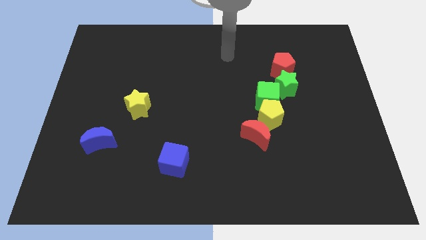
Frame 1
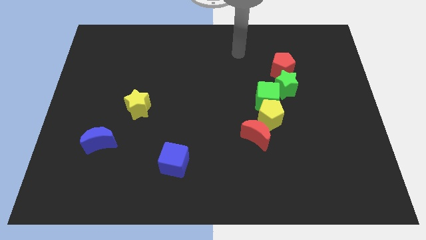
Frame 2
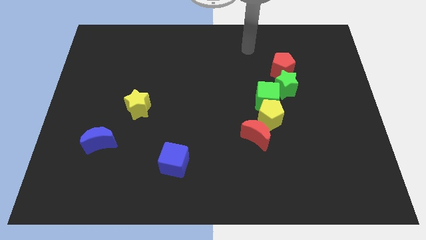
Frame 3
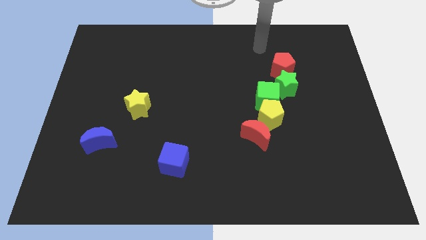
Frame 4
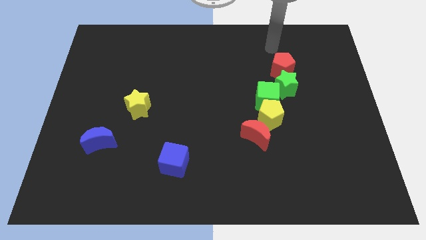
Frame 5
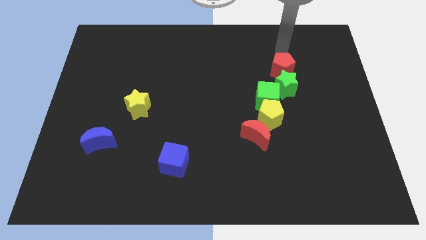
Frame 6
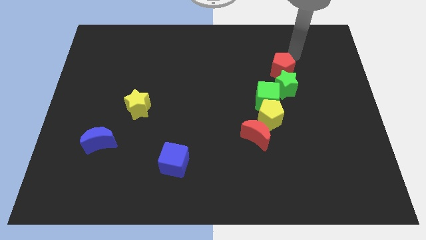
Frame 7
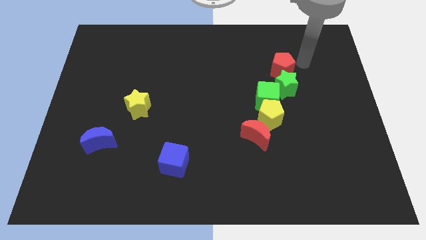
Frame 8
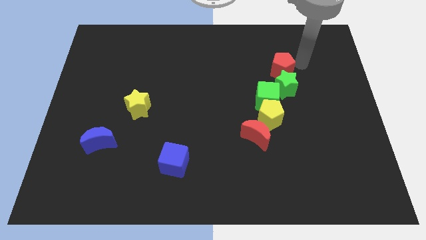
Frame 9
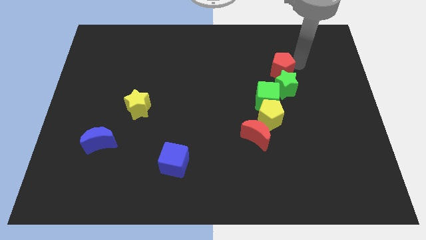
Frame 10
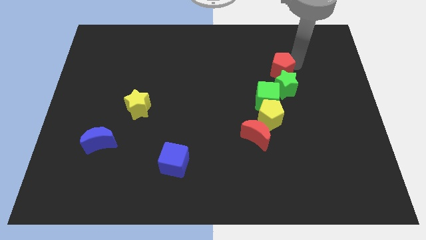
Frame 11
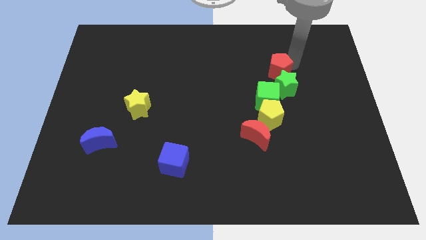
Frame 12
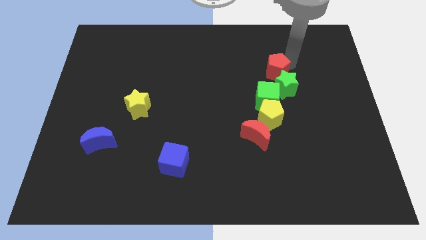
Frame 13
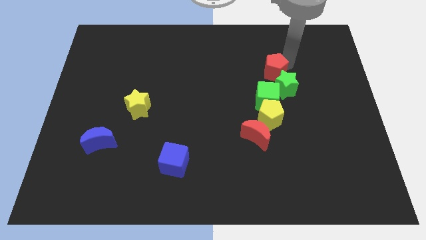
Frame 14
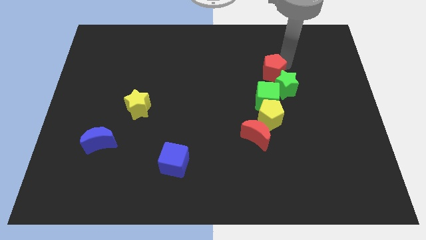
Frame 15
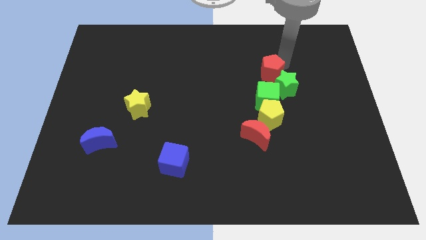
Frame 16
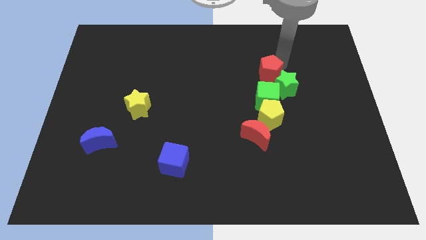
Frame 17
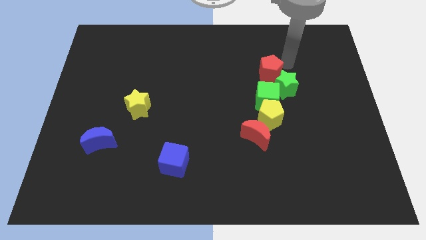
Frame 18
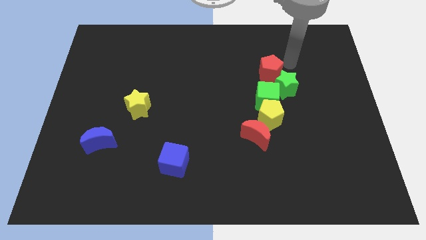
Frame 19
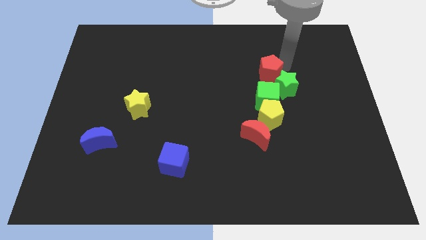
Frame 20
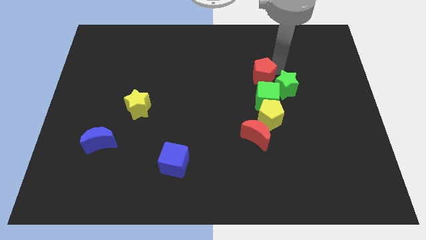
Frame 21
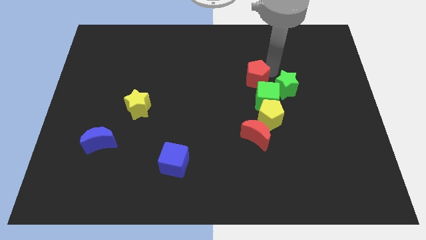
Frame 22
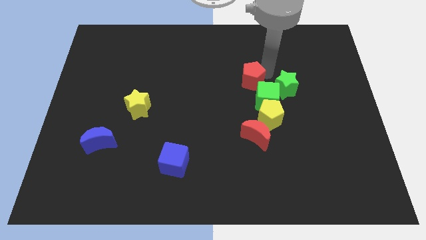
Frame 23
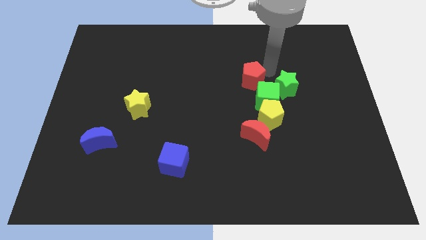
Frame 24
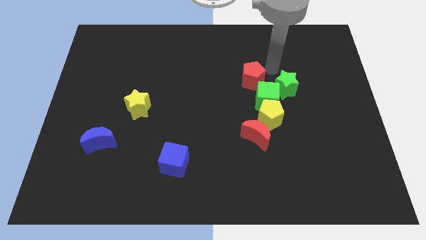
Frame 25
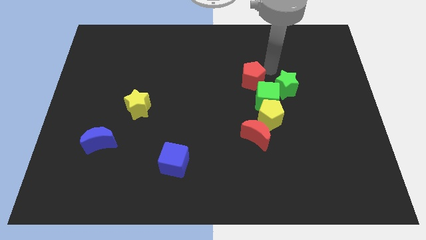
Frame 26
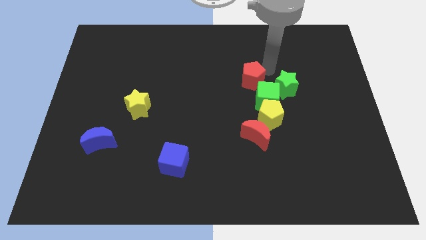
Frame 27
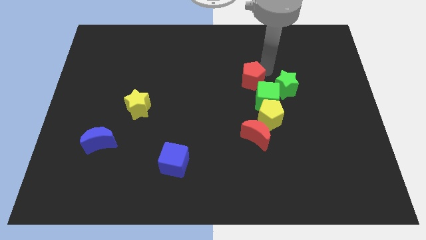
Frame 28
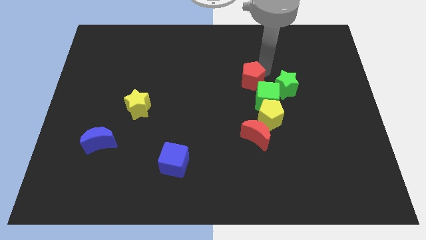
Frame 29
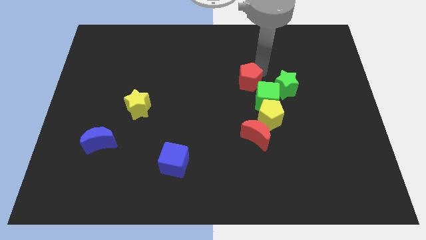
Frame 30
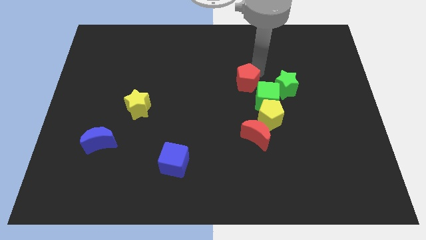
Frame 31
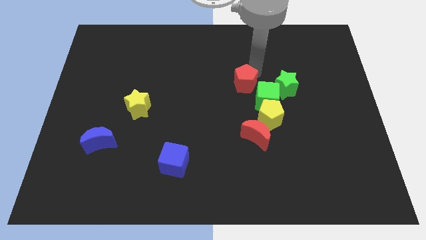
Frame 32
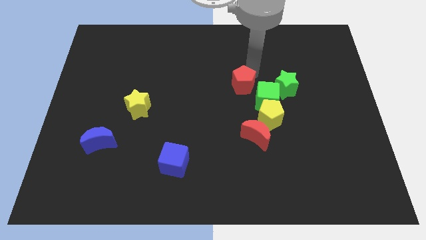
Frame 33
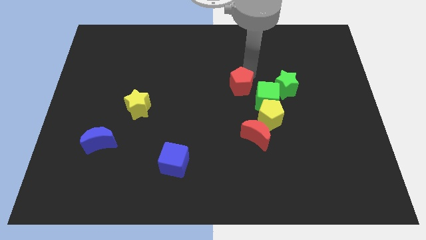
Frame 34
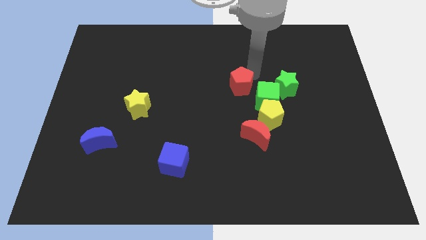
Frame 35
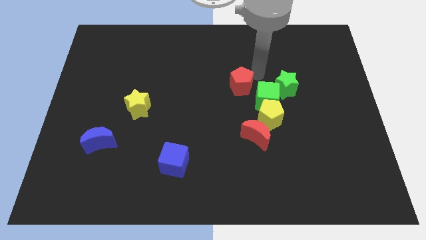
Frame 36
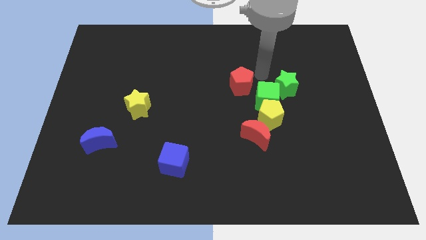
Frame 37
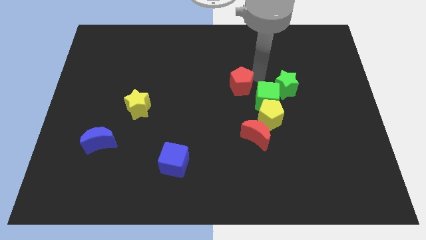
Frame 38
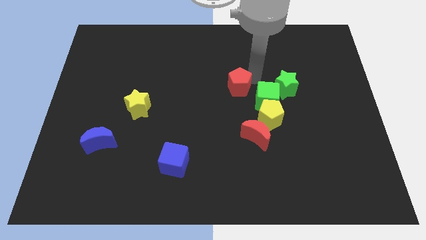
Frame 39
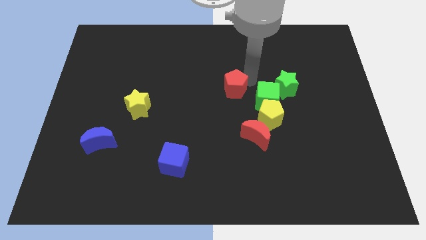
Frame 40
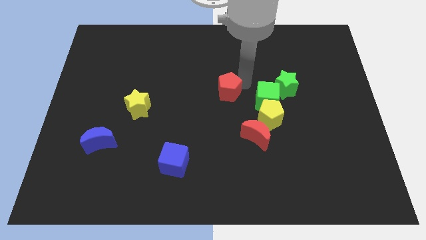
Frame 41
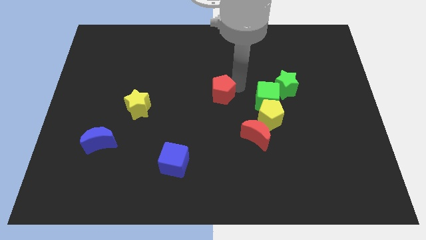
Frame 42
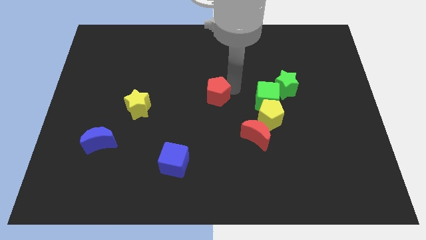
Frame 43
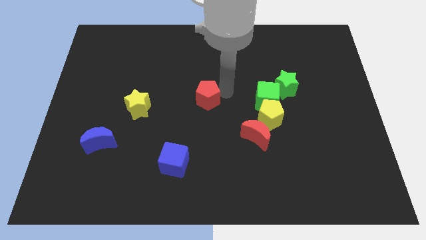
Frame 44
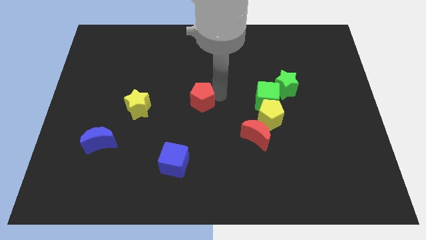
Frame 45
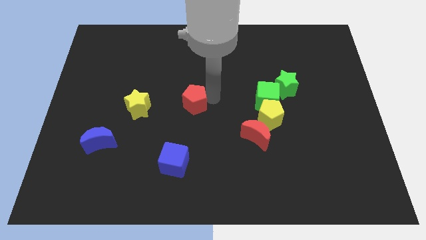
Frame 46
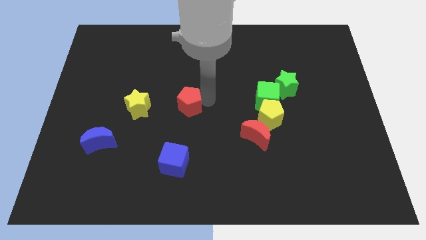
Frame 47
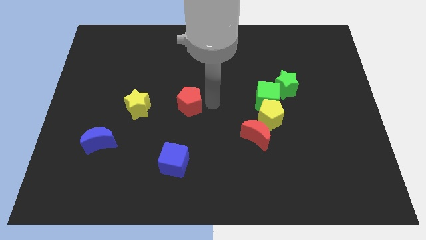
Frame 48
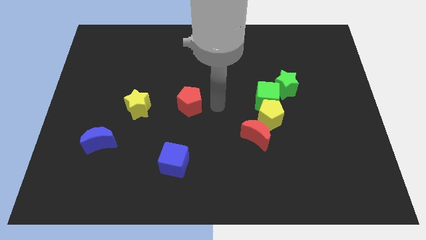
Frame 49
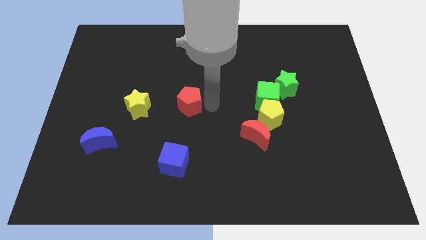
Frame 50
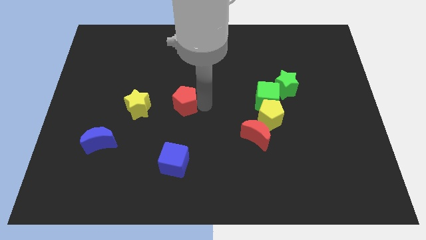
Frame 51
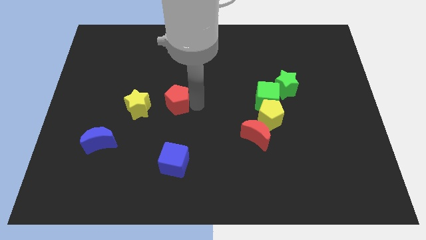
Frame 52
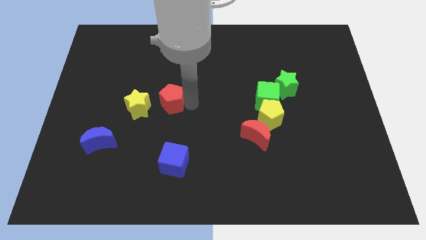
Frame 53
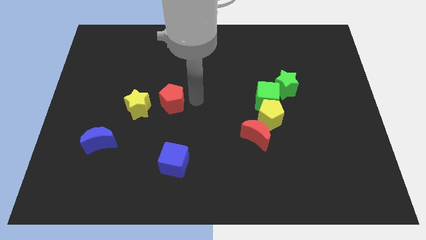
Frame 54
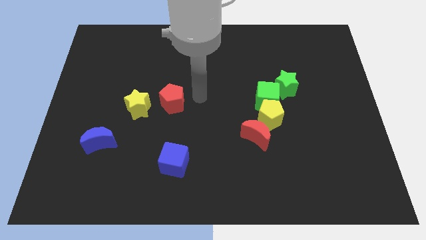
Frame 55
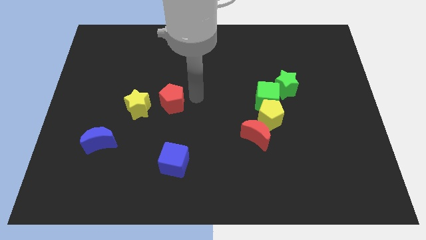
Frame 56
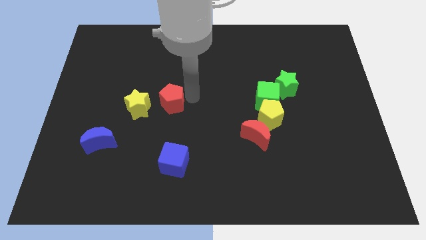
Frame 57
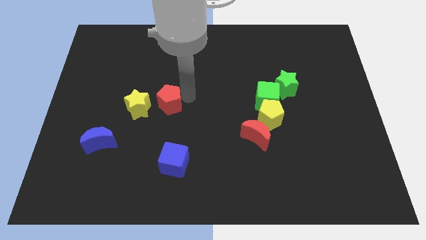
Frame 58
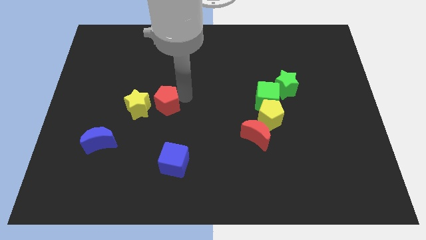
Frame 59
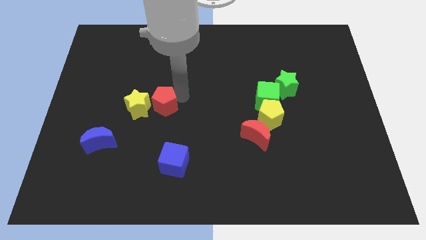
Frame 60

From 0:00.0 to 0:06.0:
put the red pentagon towards the yellow star

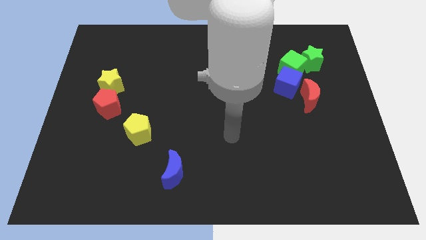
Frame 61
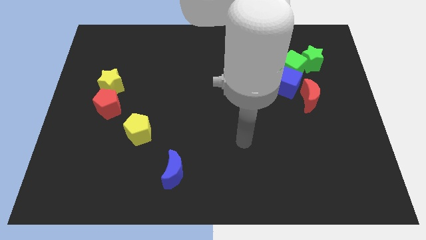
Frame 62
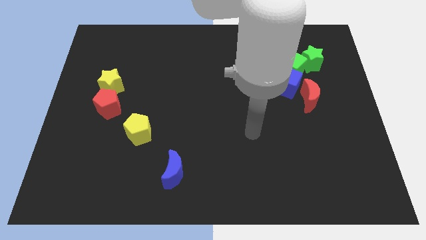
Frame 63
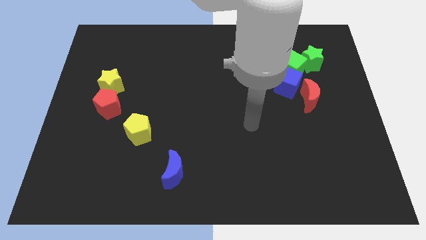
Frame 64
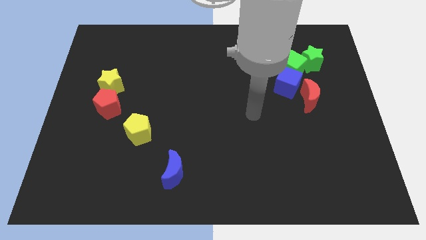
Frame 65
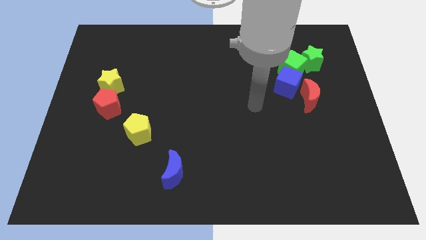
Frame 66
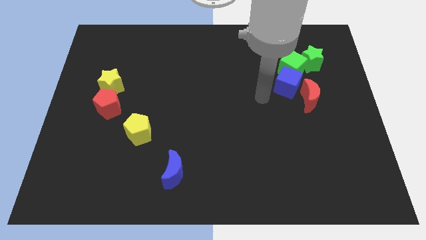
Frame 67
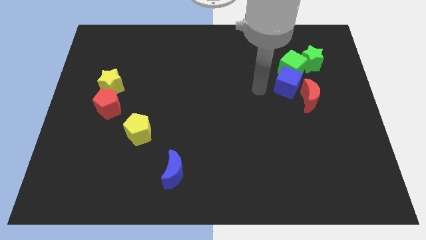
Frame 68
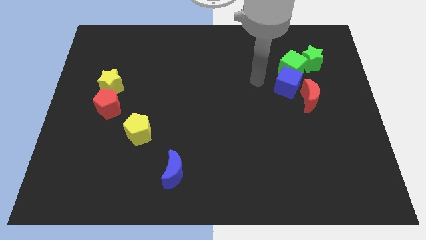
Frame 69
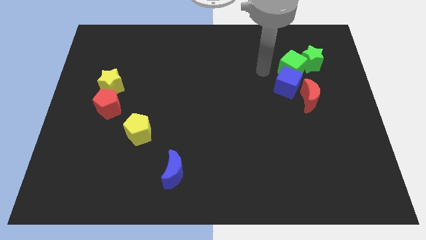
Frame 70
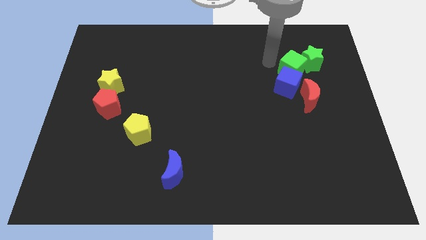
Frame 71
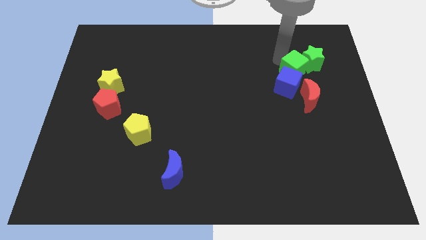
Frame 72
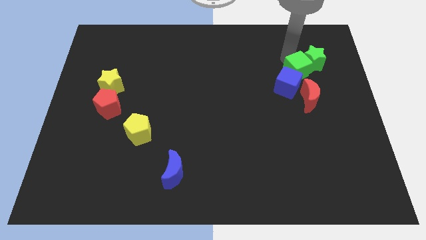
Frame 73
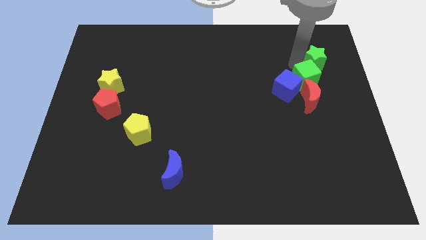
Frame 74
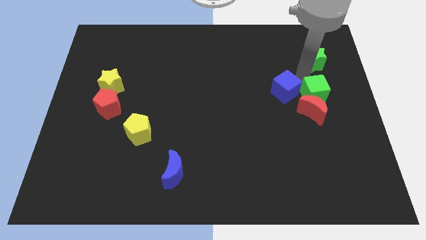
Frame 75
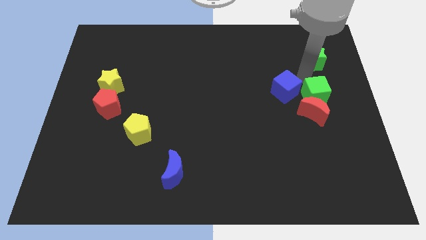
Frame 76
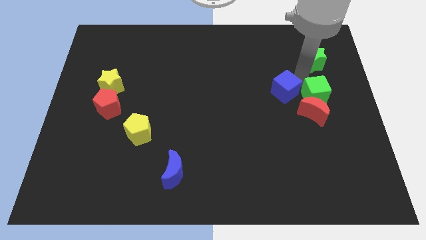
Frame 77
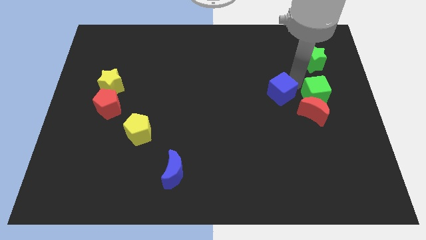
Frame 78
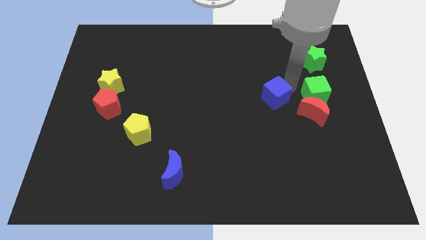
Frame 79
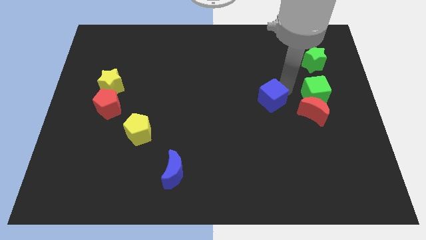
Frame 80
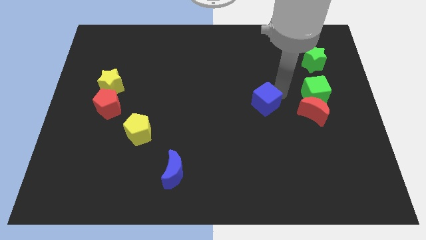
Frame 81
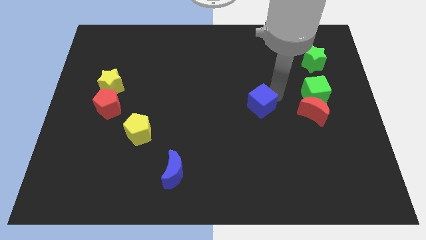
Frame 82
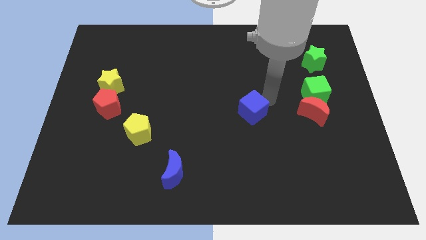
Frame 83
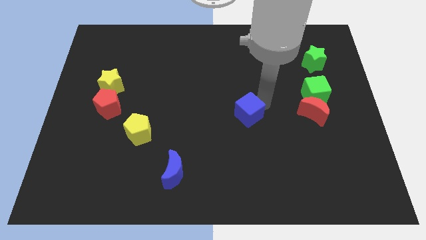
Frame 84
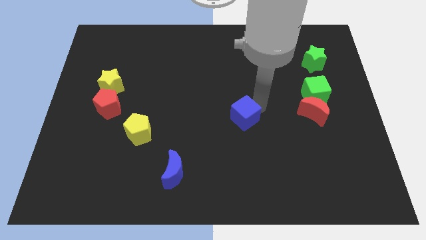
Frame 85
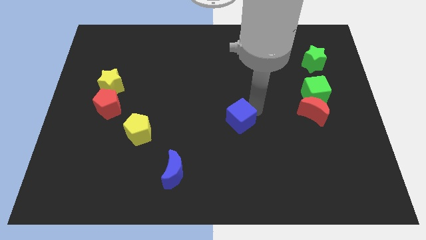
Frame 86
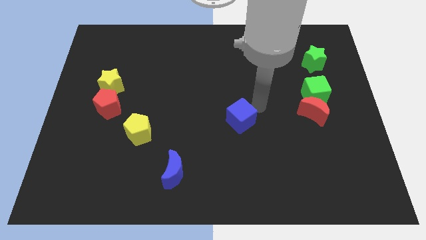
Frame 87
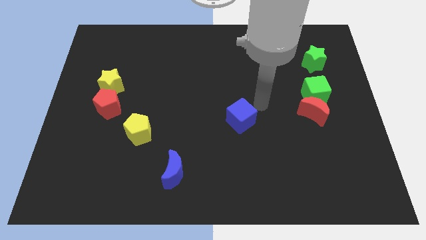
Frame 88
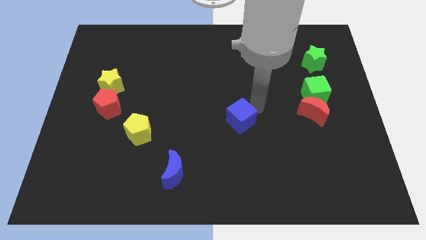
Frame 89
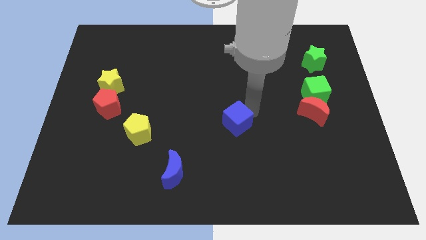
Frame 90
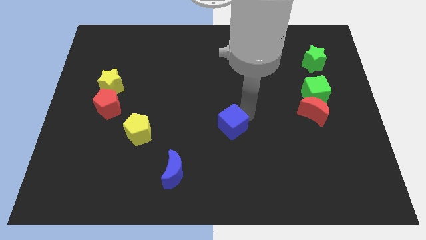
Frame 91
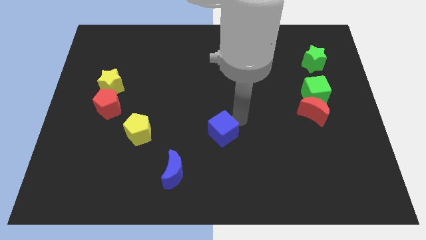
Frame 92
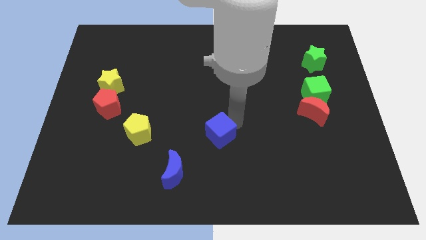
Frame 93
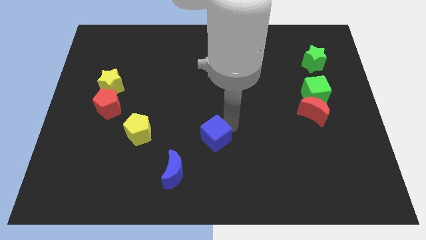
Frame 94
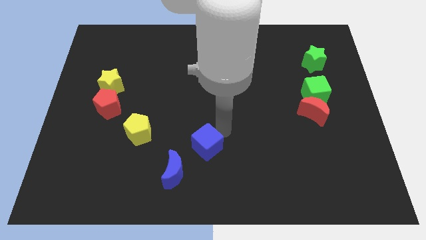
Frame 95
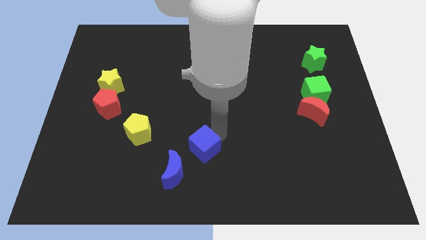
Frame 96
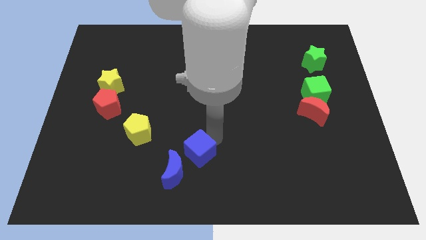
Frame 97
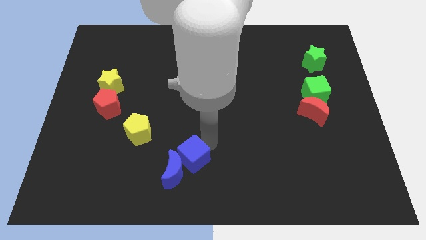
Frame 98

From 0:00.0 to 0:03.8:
slide the blue cube to the blue moon
